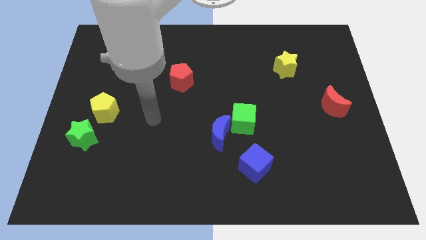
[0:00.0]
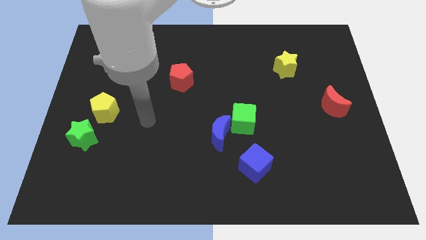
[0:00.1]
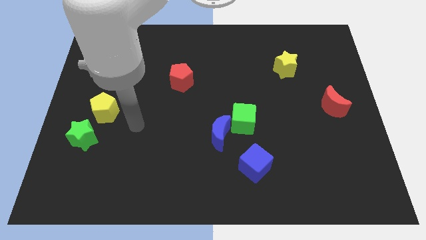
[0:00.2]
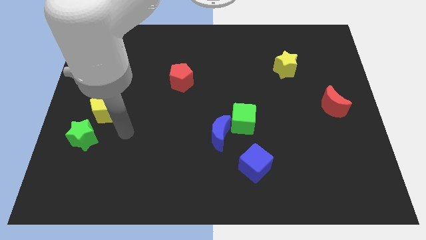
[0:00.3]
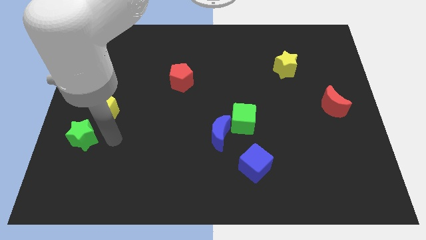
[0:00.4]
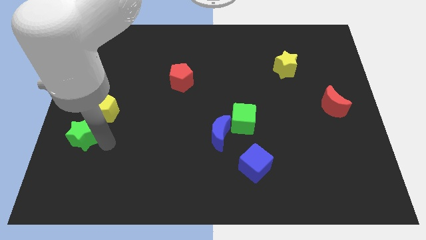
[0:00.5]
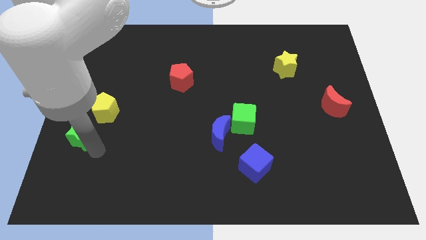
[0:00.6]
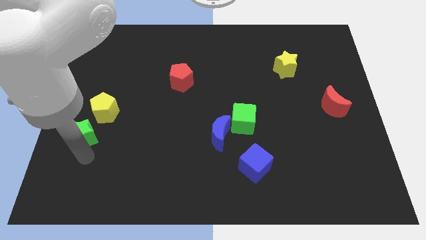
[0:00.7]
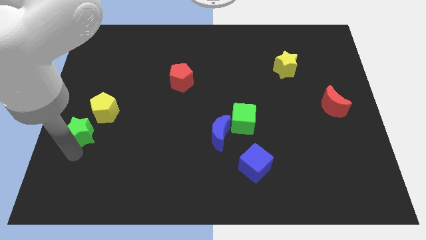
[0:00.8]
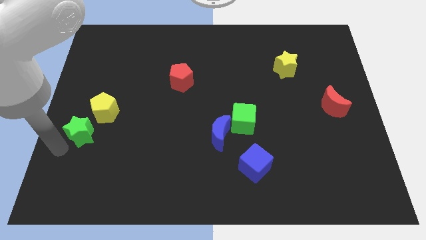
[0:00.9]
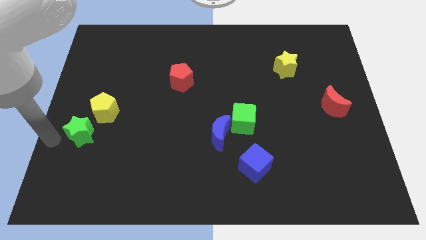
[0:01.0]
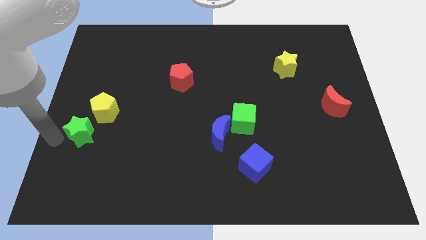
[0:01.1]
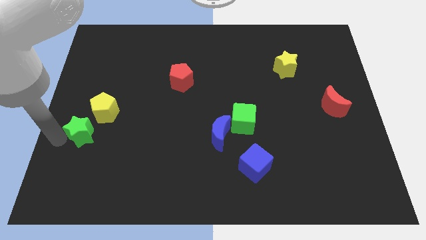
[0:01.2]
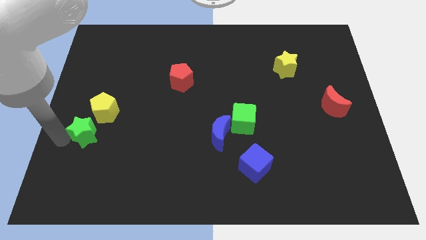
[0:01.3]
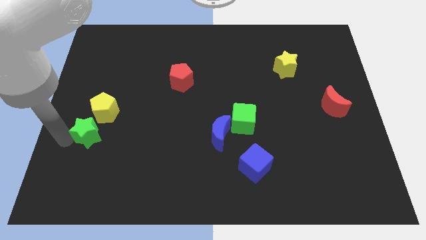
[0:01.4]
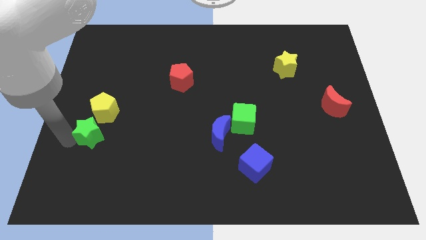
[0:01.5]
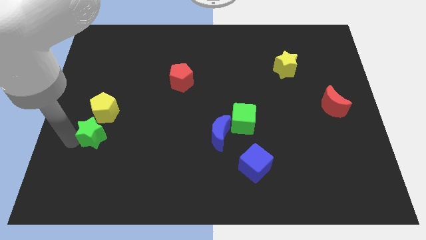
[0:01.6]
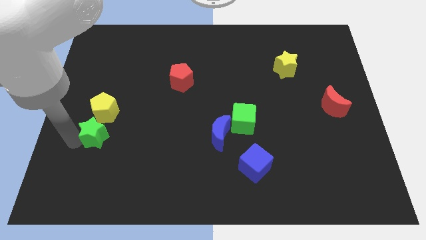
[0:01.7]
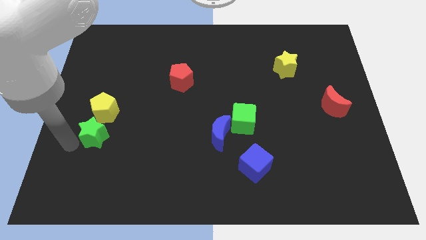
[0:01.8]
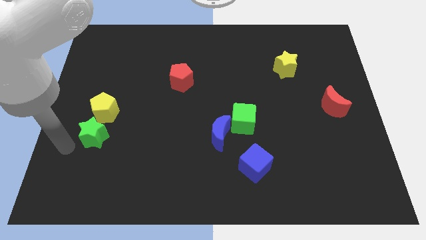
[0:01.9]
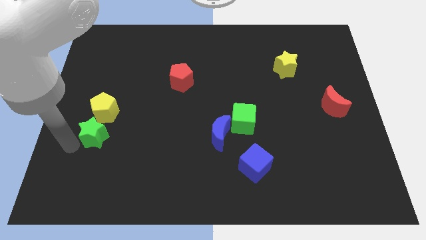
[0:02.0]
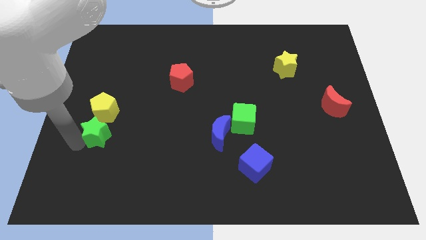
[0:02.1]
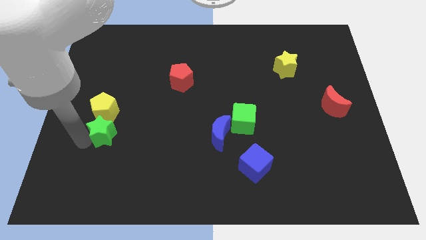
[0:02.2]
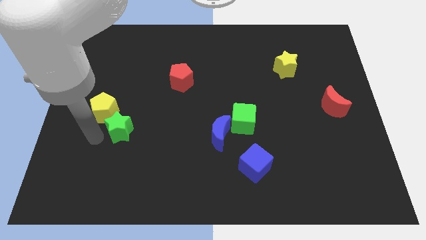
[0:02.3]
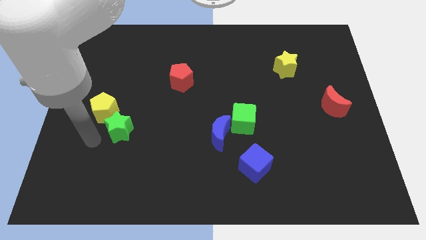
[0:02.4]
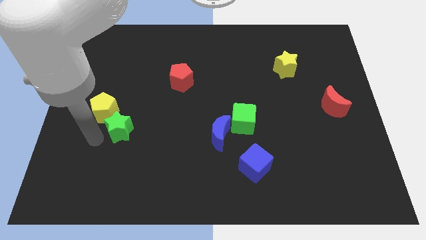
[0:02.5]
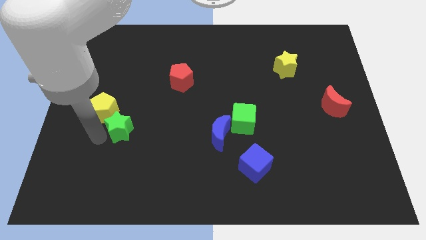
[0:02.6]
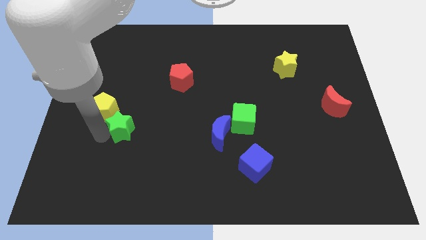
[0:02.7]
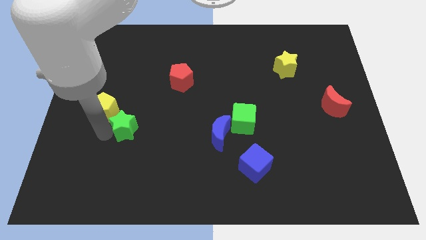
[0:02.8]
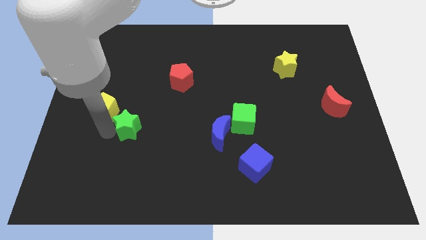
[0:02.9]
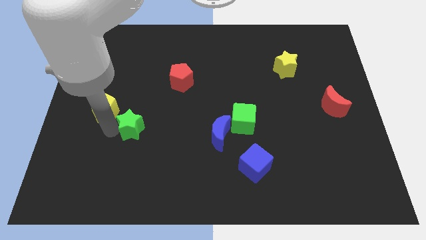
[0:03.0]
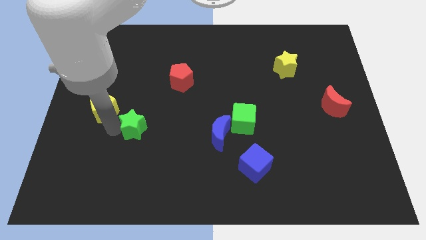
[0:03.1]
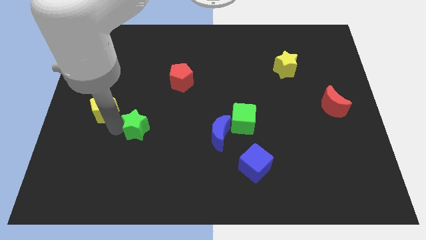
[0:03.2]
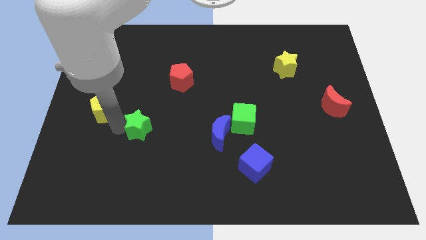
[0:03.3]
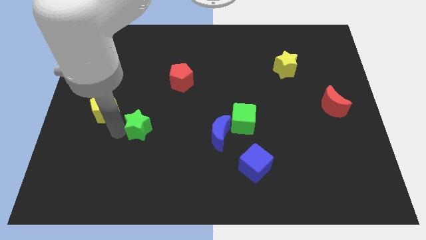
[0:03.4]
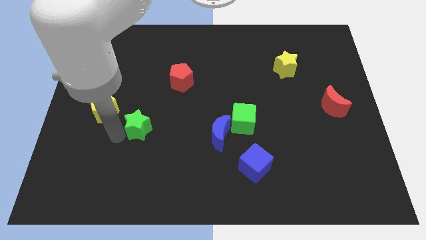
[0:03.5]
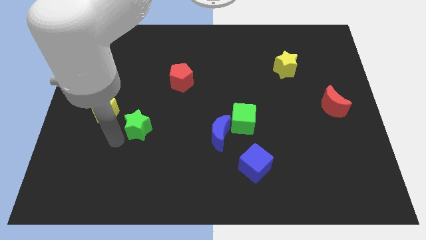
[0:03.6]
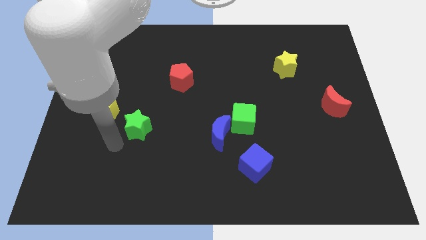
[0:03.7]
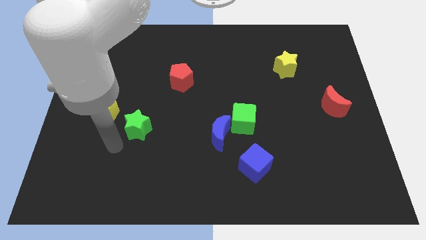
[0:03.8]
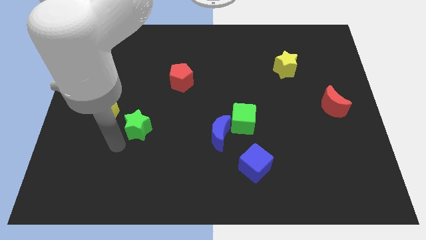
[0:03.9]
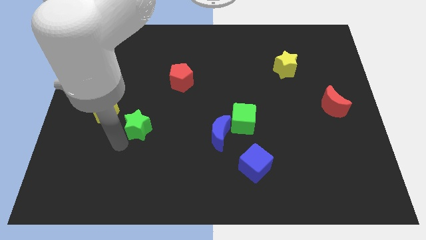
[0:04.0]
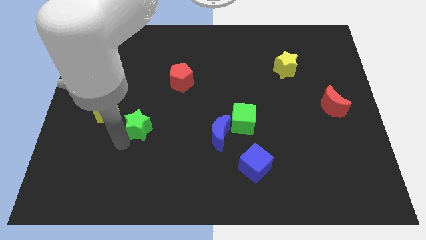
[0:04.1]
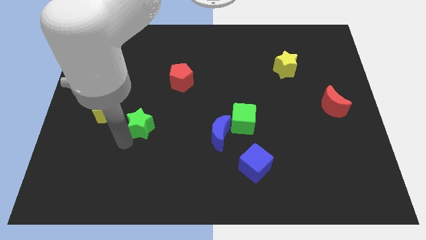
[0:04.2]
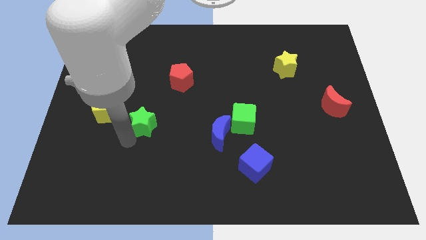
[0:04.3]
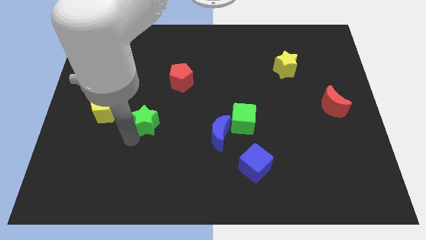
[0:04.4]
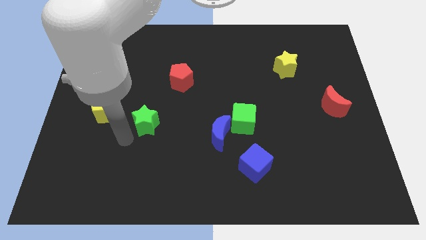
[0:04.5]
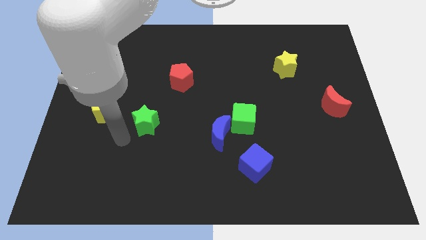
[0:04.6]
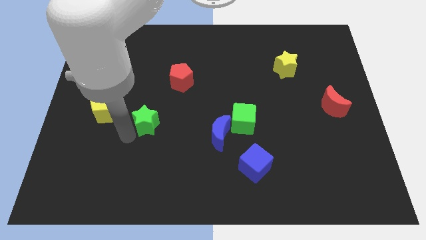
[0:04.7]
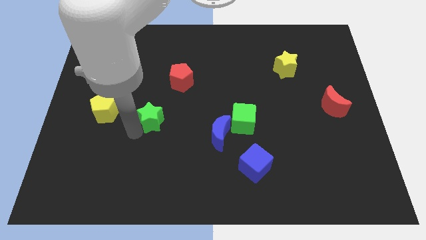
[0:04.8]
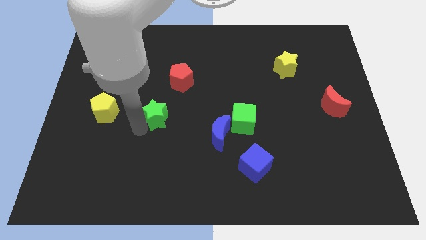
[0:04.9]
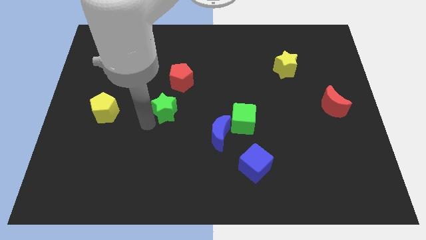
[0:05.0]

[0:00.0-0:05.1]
move the green star to the center of the board

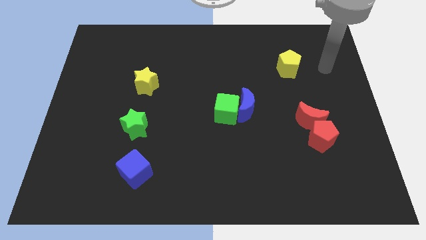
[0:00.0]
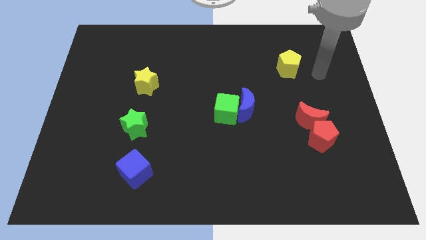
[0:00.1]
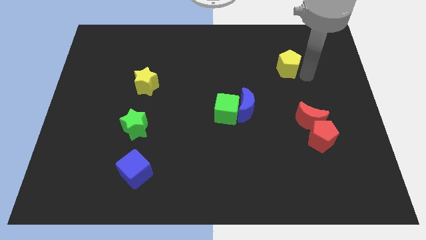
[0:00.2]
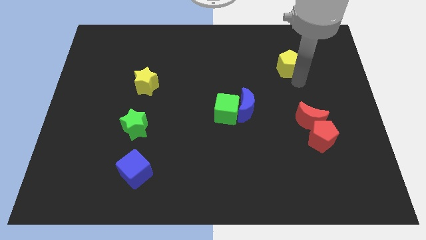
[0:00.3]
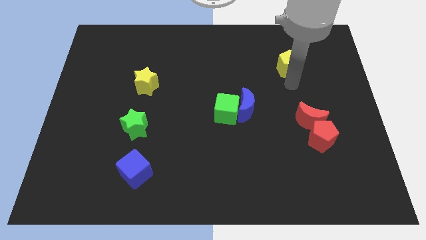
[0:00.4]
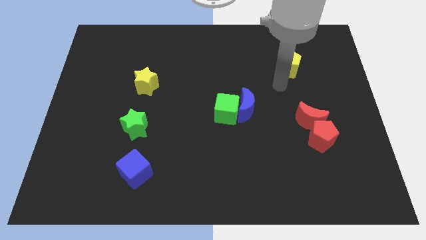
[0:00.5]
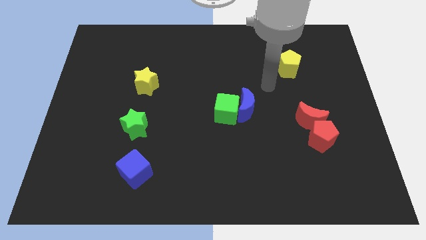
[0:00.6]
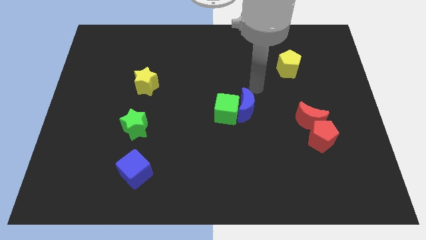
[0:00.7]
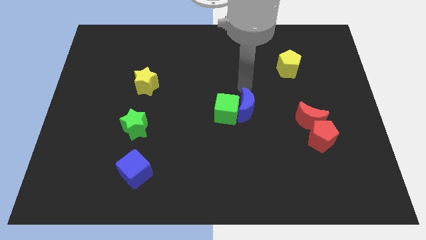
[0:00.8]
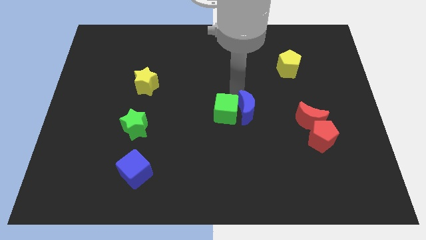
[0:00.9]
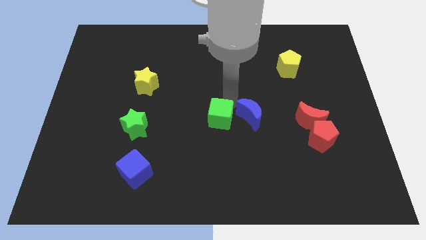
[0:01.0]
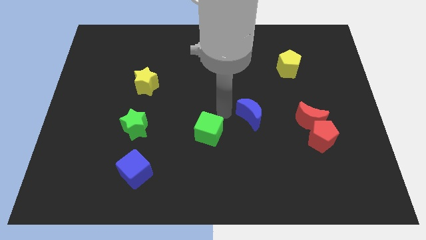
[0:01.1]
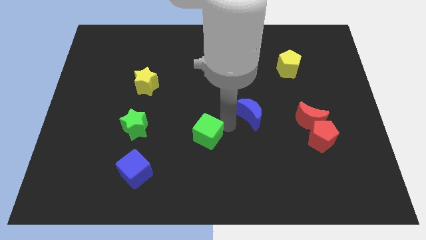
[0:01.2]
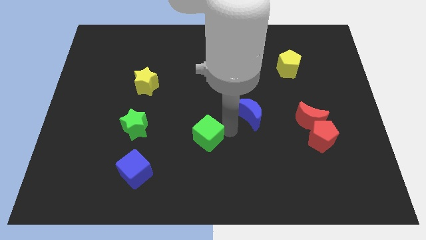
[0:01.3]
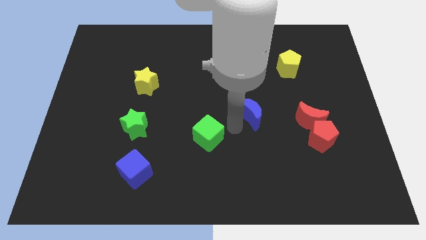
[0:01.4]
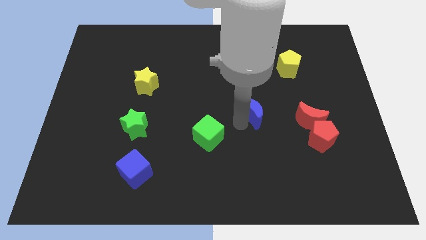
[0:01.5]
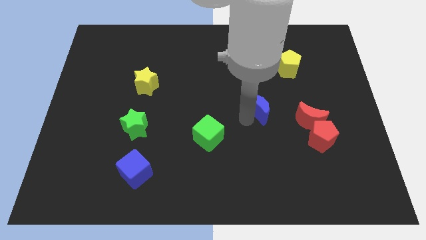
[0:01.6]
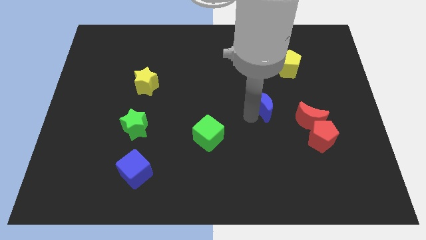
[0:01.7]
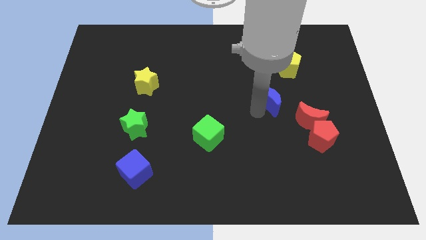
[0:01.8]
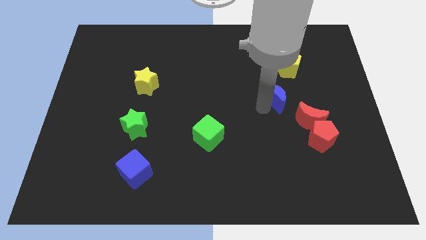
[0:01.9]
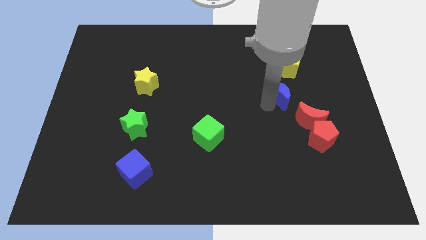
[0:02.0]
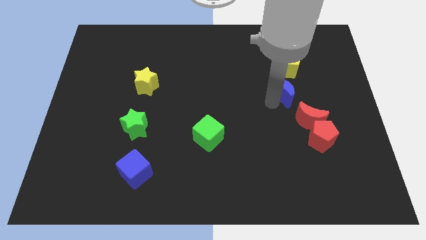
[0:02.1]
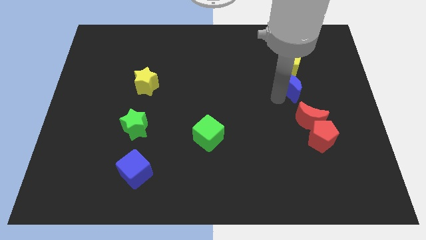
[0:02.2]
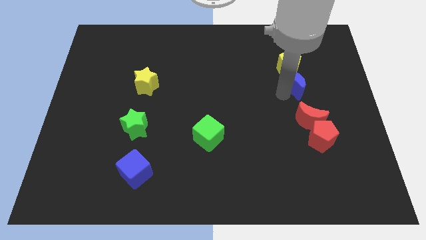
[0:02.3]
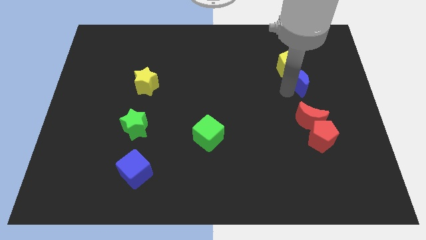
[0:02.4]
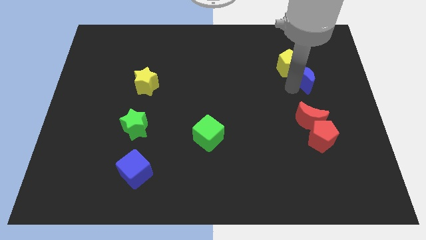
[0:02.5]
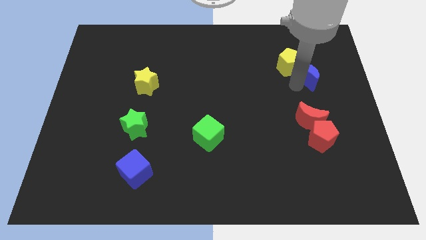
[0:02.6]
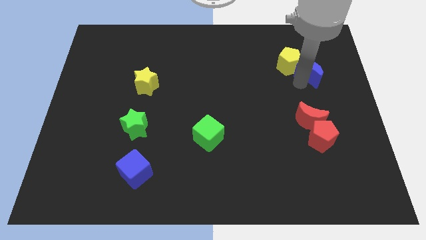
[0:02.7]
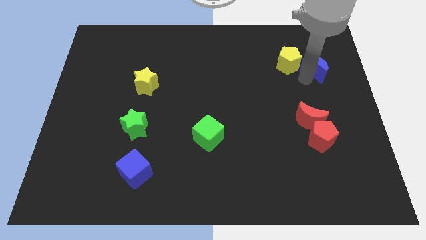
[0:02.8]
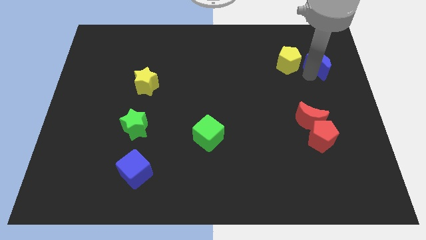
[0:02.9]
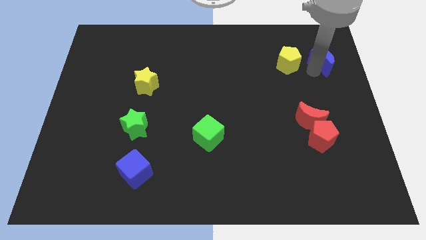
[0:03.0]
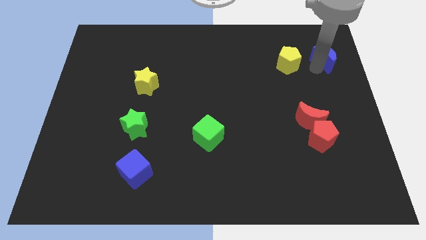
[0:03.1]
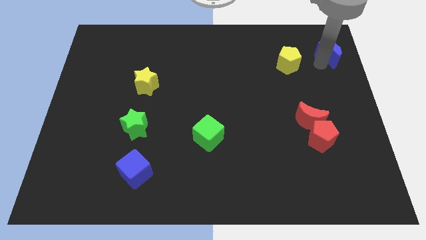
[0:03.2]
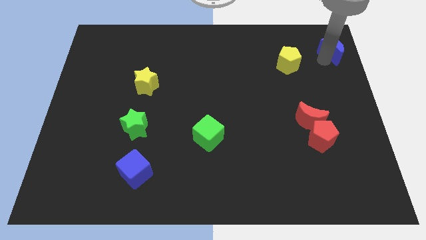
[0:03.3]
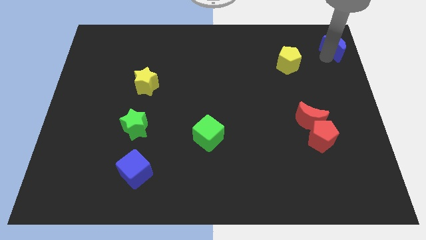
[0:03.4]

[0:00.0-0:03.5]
push the blue moon to the top right corner
